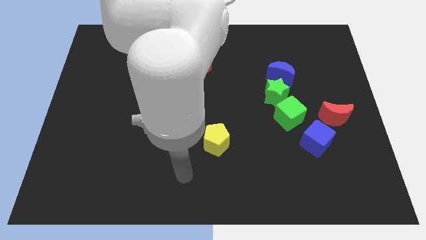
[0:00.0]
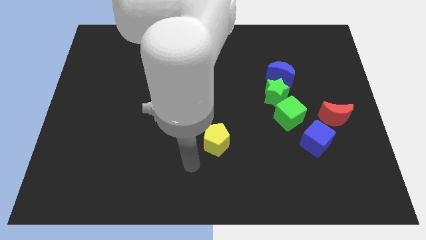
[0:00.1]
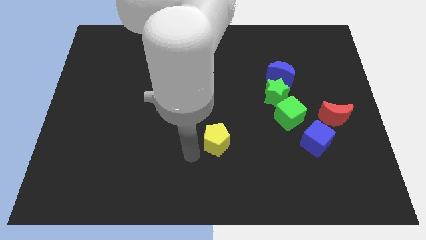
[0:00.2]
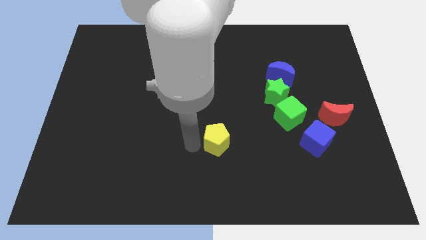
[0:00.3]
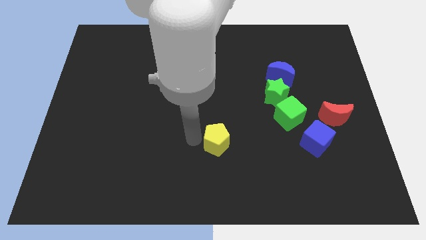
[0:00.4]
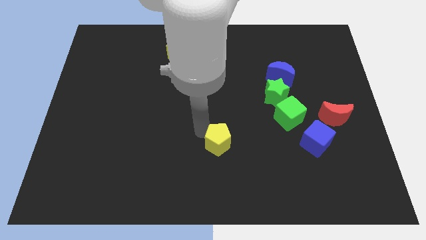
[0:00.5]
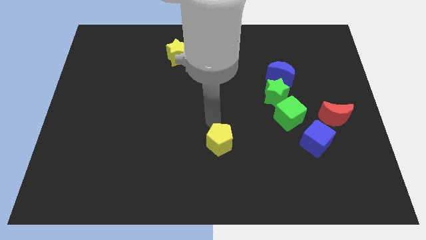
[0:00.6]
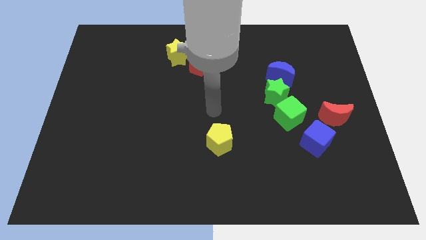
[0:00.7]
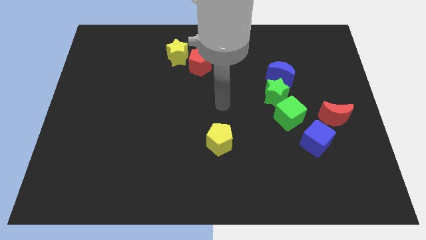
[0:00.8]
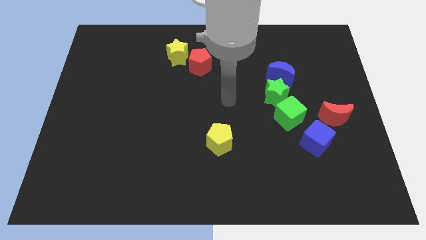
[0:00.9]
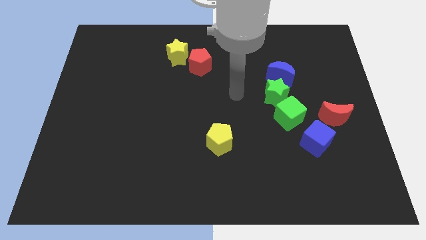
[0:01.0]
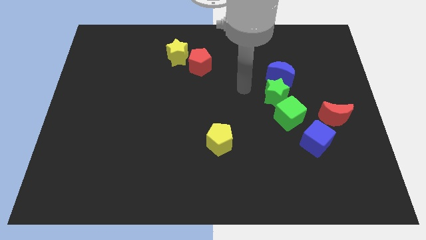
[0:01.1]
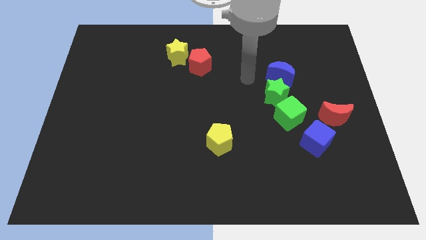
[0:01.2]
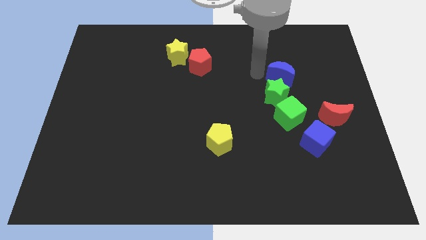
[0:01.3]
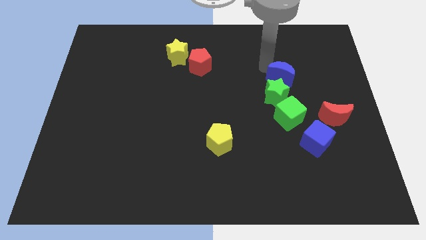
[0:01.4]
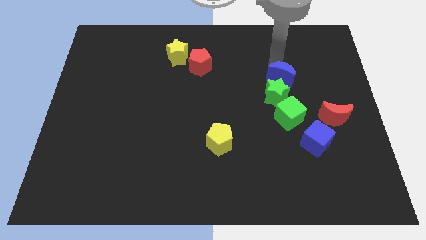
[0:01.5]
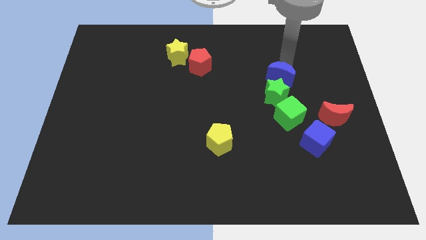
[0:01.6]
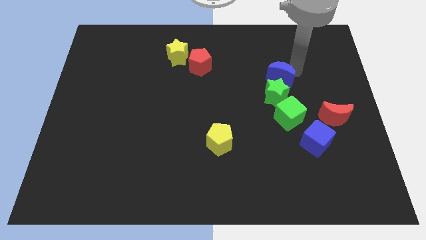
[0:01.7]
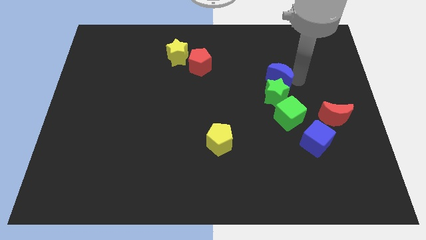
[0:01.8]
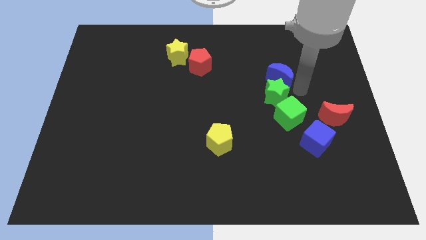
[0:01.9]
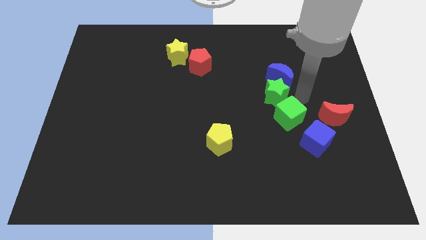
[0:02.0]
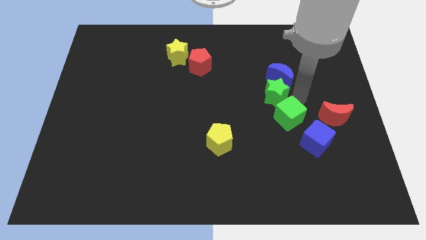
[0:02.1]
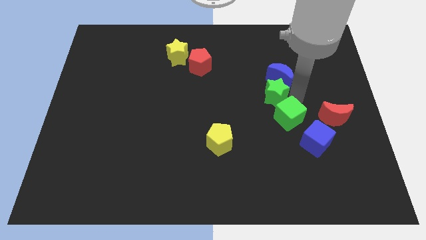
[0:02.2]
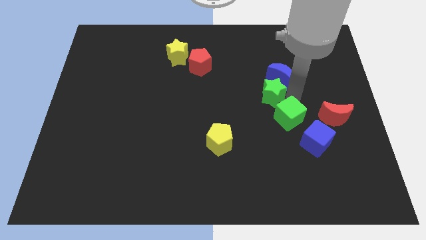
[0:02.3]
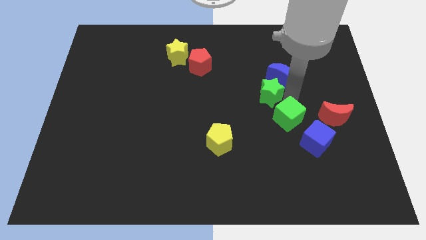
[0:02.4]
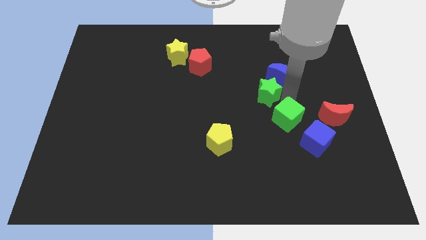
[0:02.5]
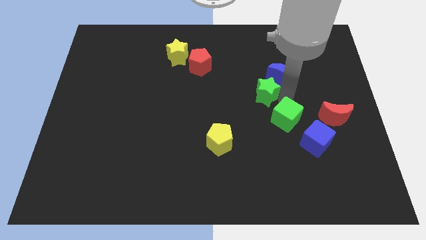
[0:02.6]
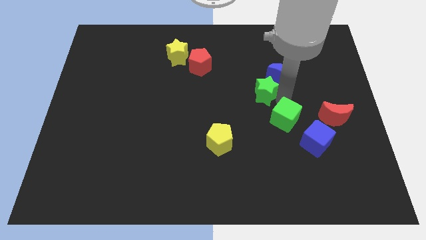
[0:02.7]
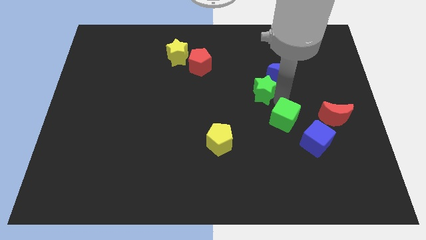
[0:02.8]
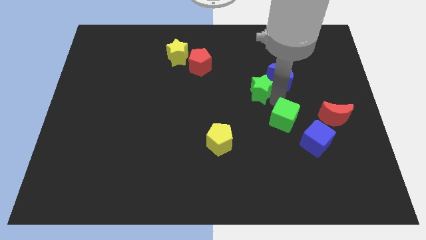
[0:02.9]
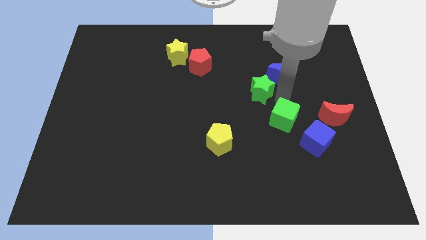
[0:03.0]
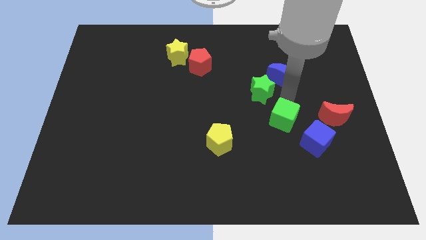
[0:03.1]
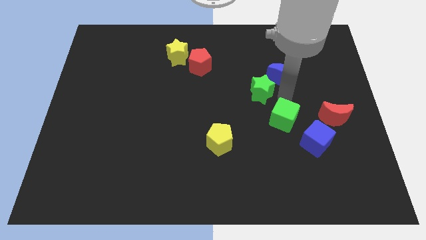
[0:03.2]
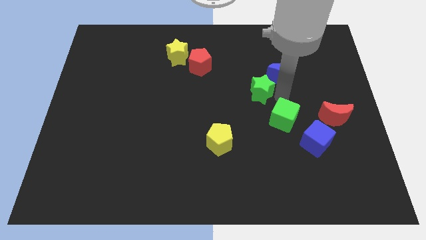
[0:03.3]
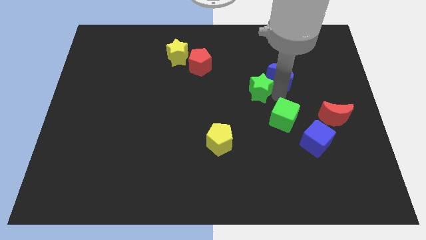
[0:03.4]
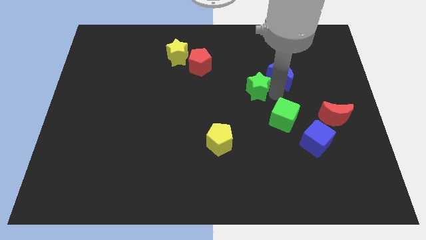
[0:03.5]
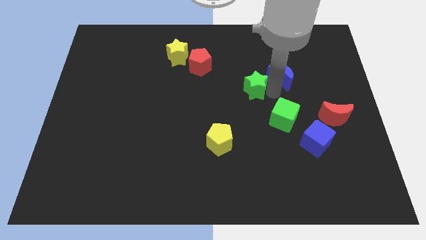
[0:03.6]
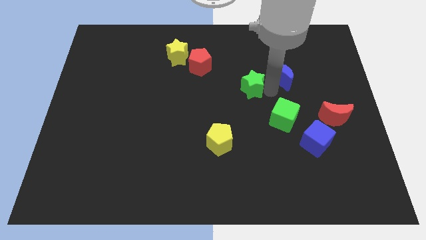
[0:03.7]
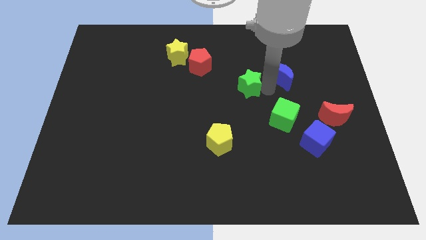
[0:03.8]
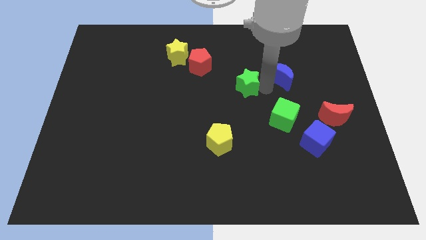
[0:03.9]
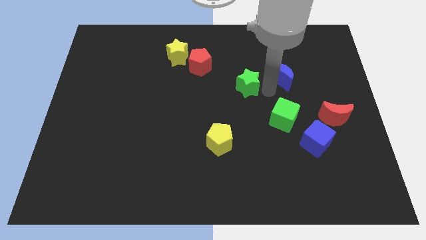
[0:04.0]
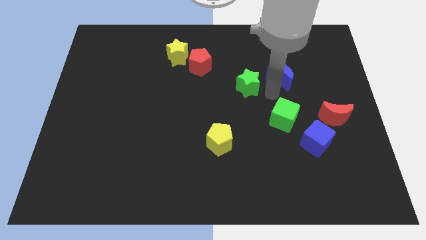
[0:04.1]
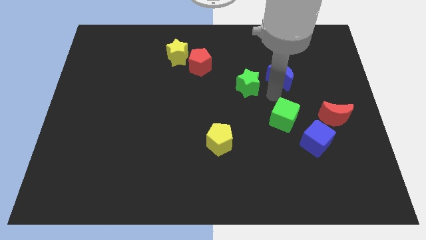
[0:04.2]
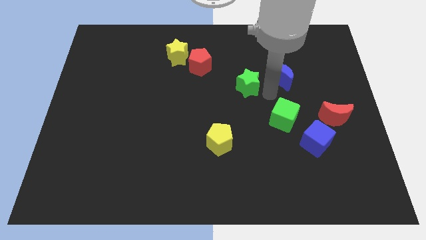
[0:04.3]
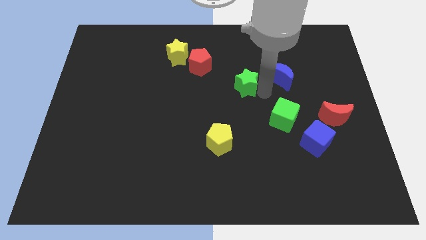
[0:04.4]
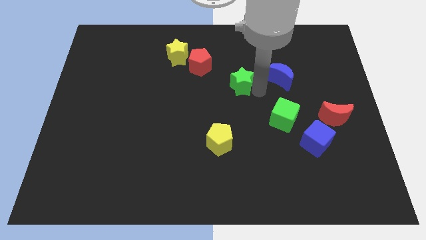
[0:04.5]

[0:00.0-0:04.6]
pull the green star apart from the green cube and blue moon

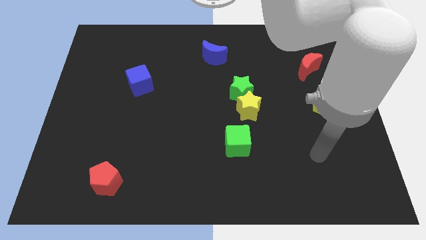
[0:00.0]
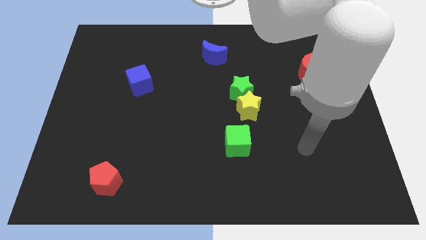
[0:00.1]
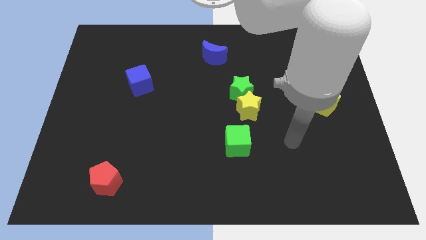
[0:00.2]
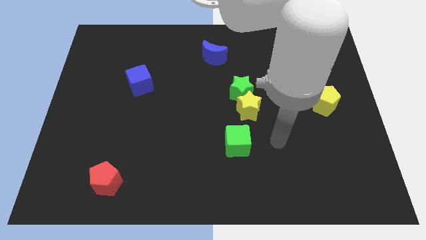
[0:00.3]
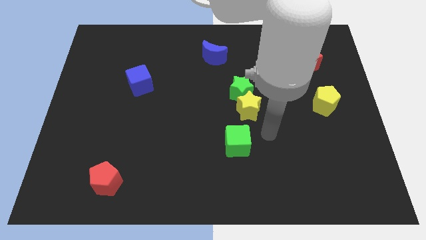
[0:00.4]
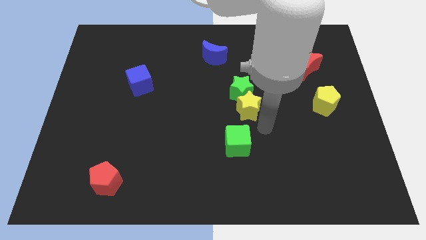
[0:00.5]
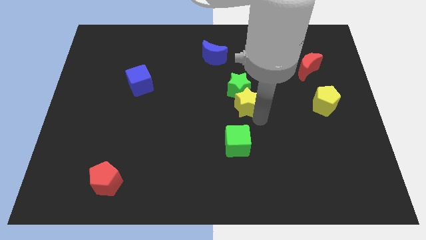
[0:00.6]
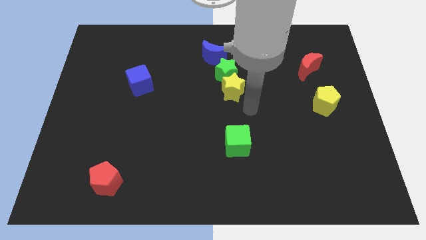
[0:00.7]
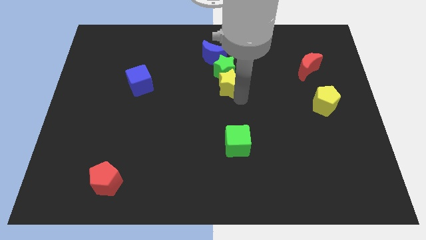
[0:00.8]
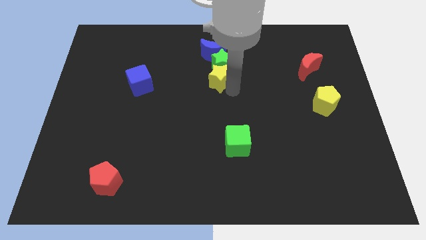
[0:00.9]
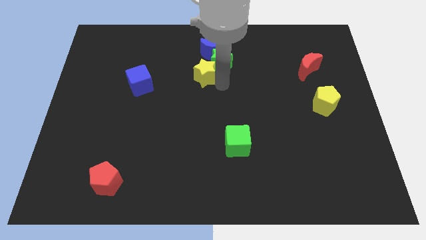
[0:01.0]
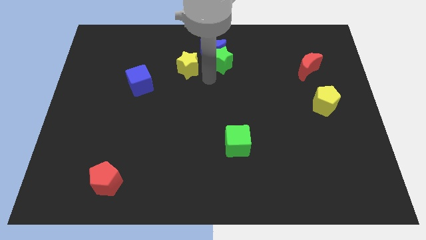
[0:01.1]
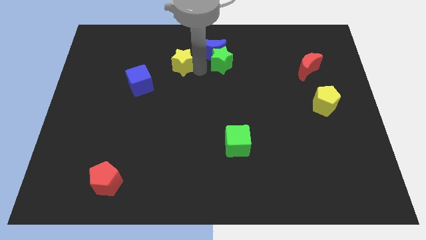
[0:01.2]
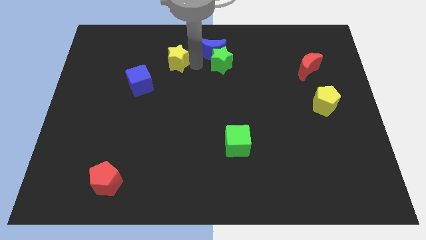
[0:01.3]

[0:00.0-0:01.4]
pull the green star apart from the yellow star

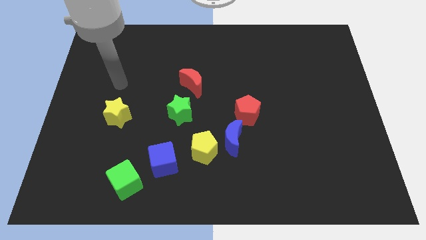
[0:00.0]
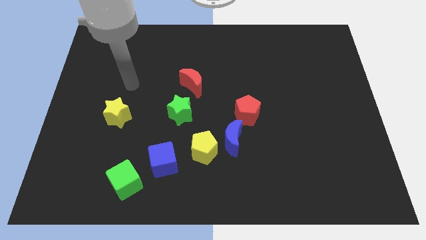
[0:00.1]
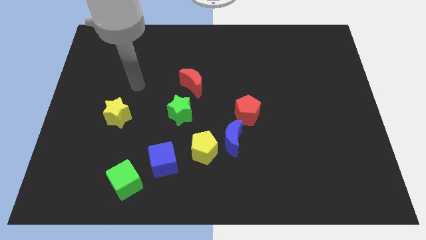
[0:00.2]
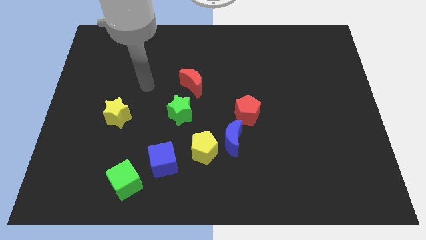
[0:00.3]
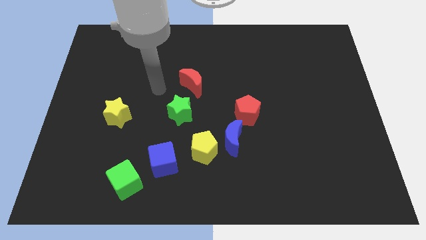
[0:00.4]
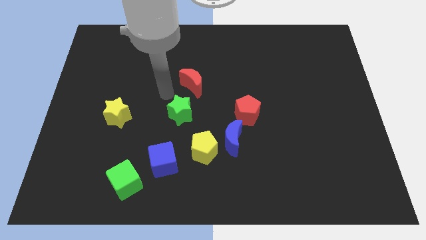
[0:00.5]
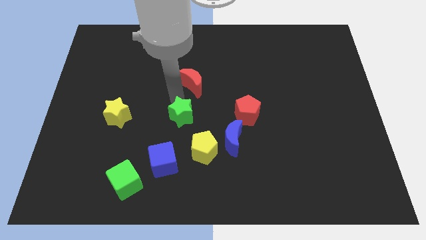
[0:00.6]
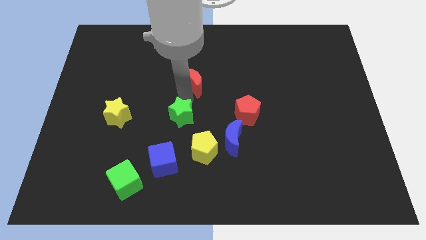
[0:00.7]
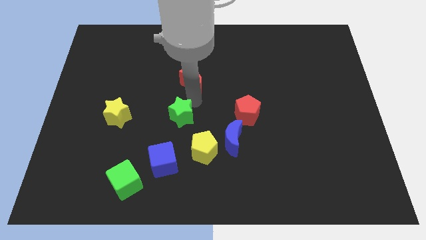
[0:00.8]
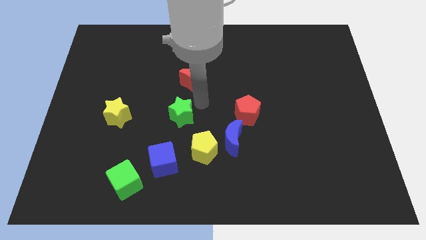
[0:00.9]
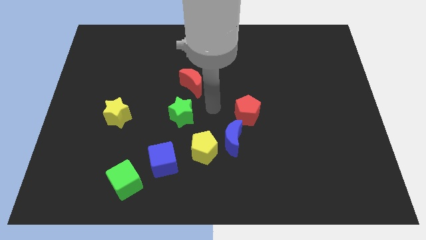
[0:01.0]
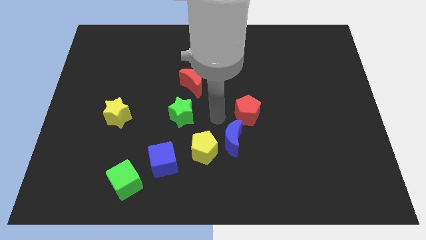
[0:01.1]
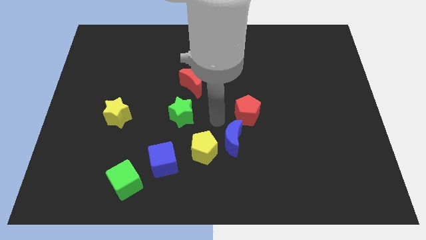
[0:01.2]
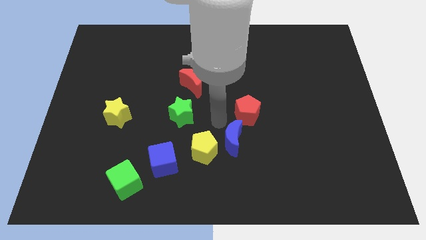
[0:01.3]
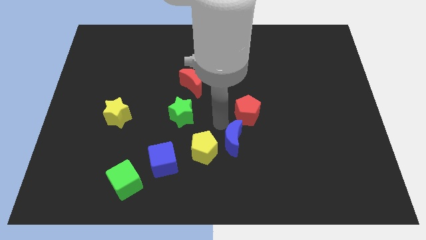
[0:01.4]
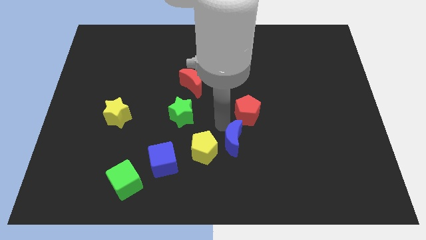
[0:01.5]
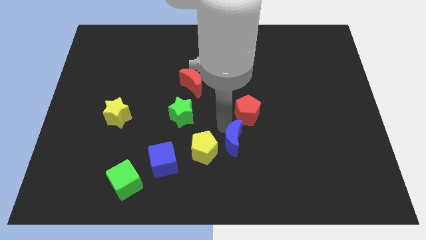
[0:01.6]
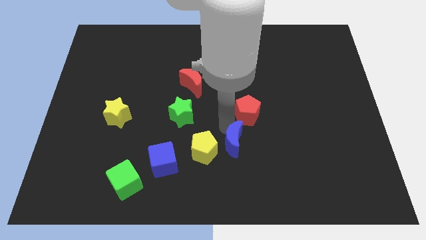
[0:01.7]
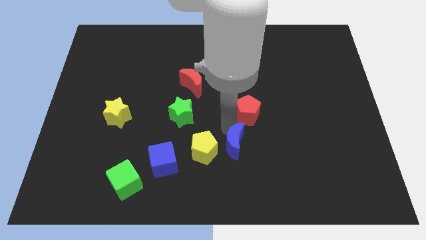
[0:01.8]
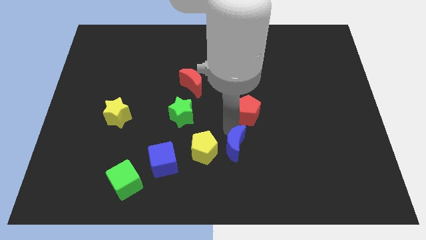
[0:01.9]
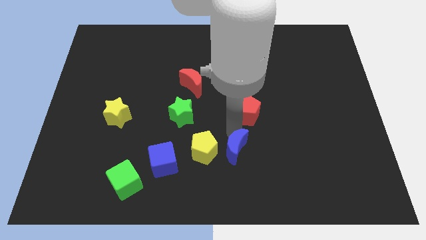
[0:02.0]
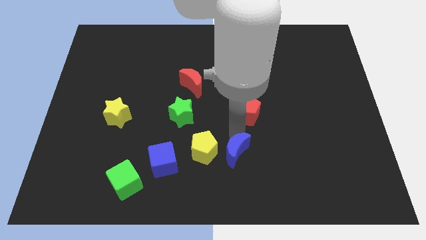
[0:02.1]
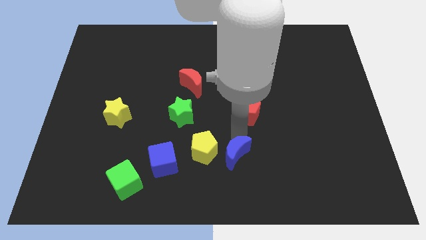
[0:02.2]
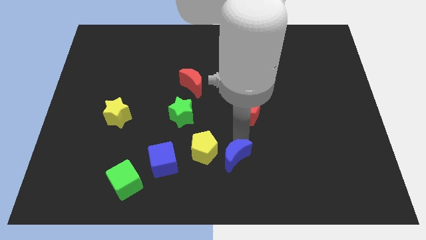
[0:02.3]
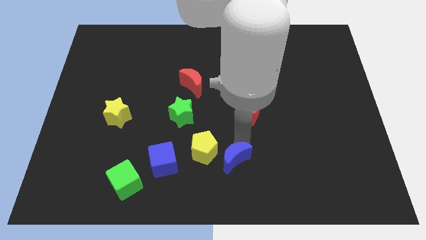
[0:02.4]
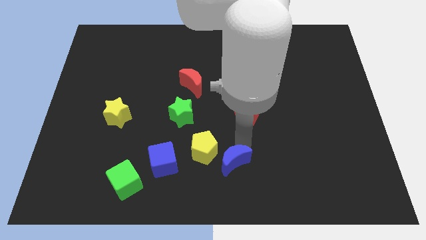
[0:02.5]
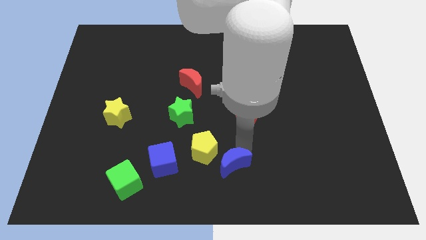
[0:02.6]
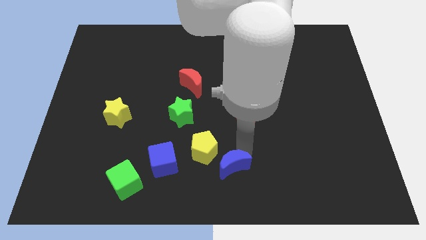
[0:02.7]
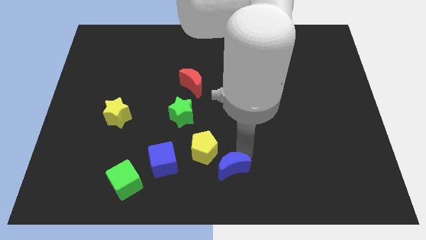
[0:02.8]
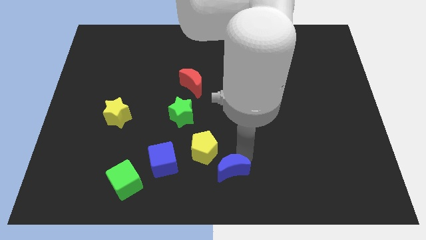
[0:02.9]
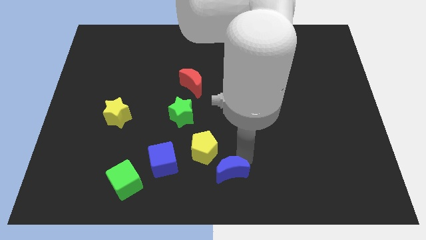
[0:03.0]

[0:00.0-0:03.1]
move the blue moon away from the yellow pentagon and red pentagon

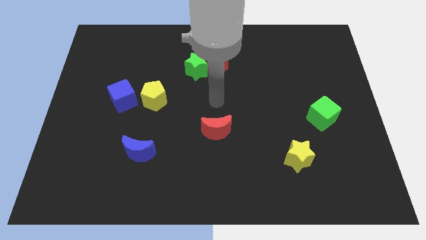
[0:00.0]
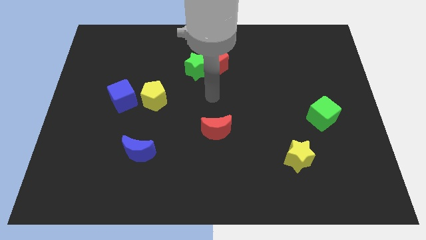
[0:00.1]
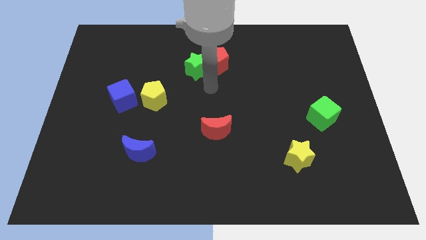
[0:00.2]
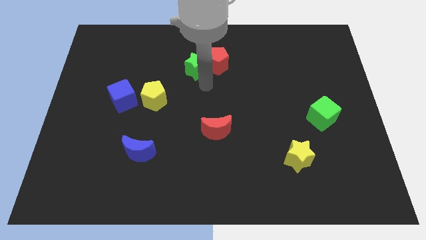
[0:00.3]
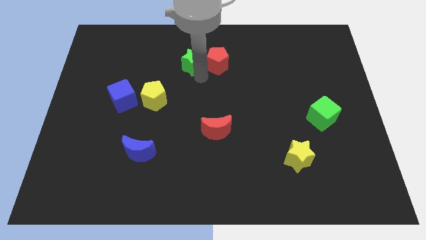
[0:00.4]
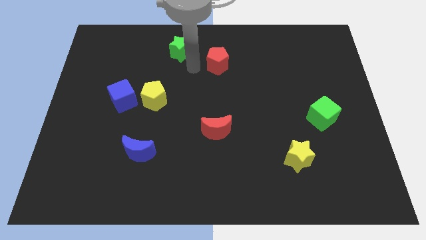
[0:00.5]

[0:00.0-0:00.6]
move the red pentagon away from the green star
